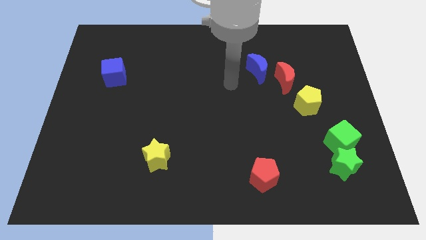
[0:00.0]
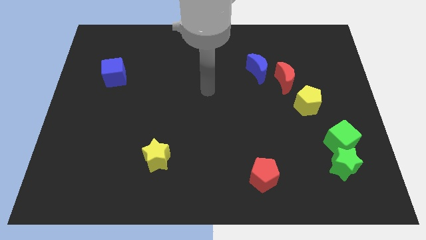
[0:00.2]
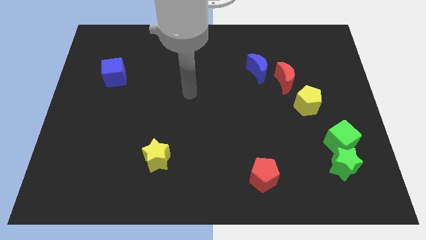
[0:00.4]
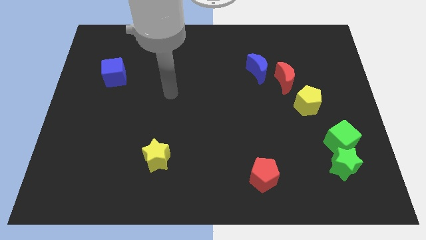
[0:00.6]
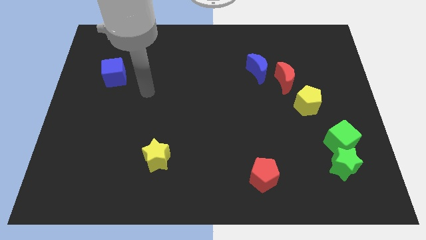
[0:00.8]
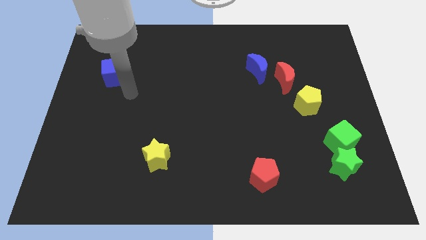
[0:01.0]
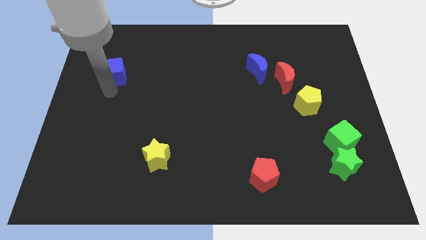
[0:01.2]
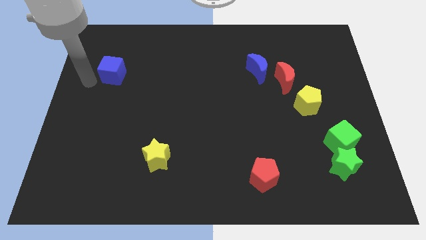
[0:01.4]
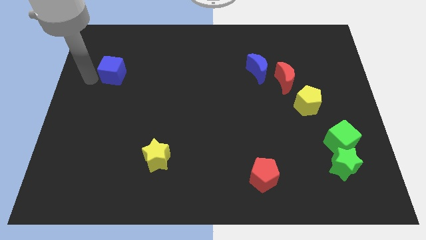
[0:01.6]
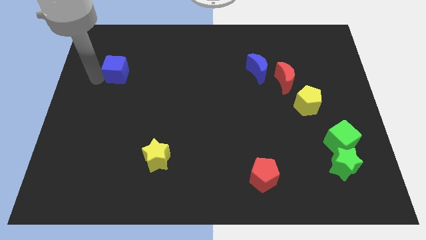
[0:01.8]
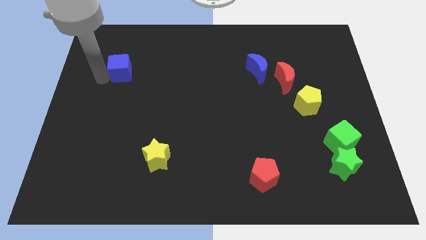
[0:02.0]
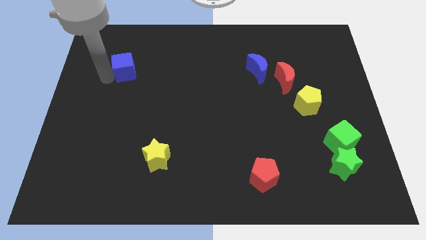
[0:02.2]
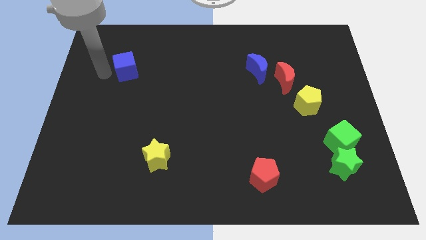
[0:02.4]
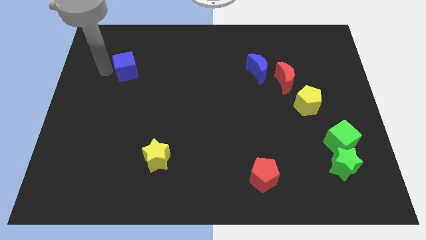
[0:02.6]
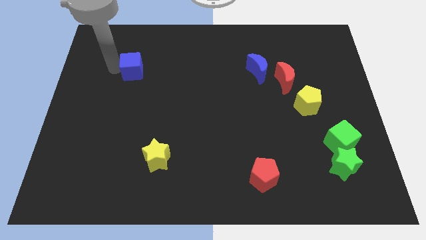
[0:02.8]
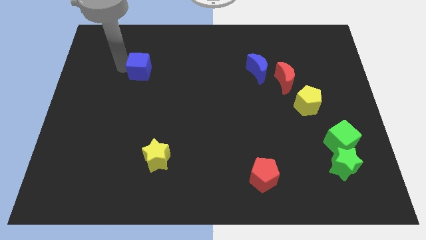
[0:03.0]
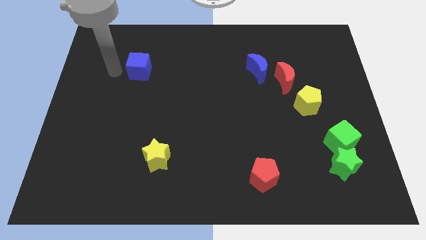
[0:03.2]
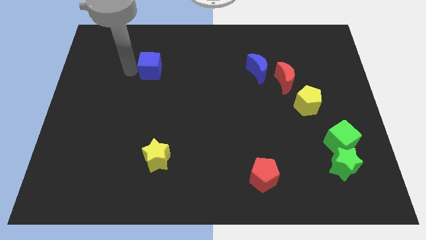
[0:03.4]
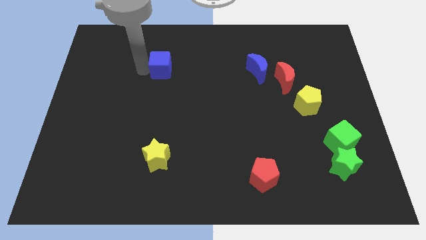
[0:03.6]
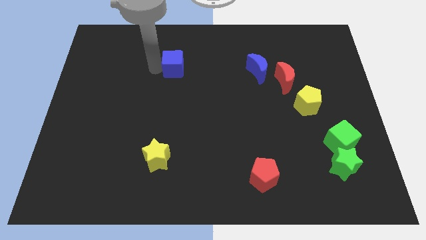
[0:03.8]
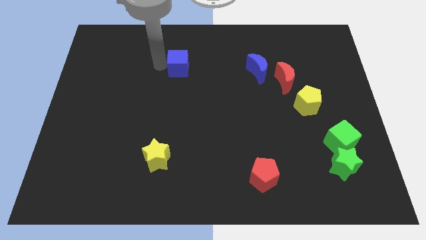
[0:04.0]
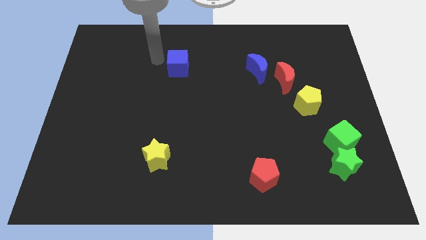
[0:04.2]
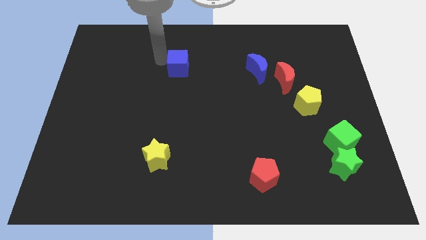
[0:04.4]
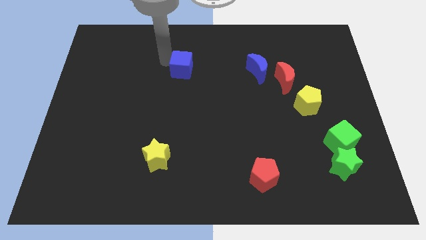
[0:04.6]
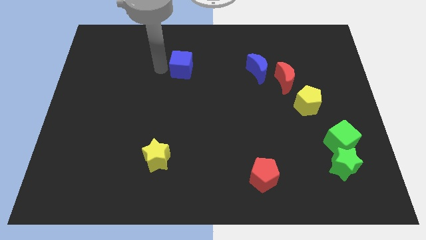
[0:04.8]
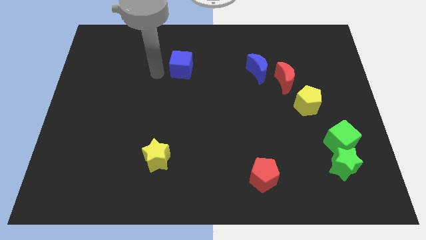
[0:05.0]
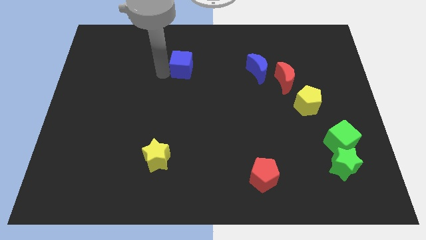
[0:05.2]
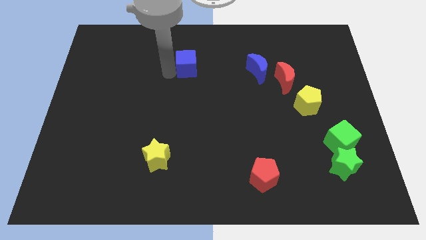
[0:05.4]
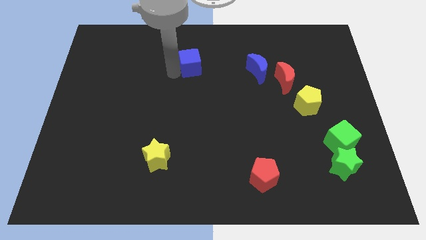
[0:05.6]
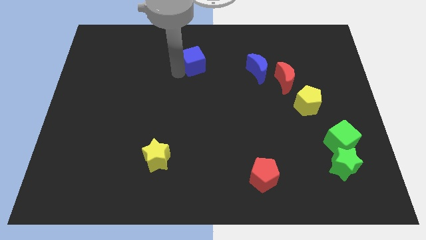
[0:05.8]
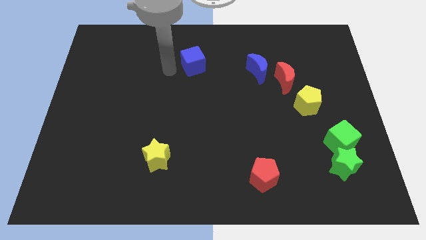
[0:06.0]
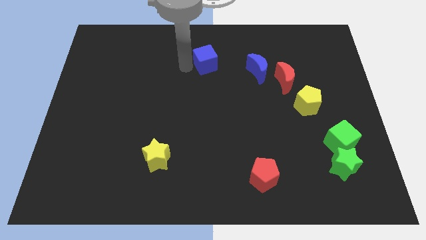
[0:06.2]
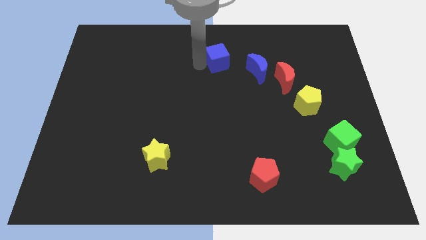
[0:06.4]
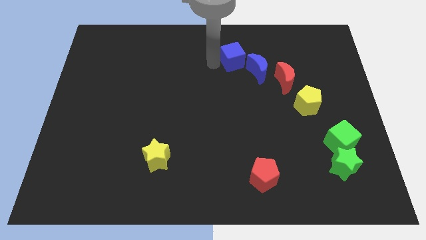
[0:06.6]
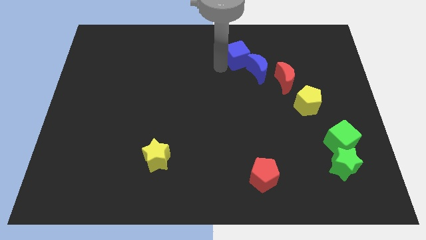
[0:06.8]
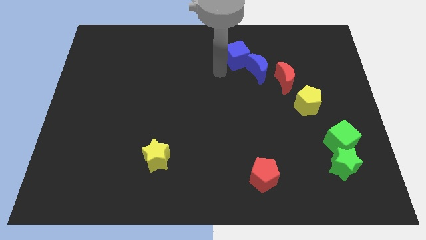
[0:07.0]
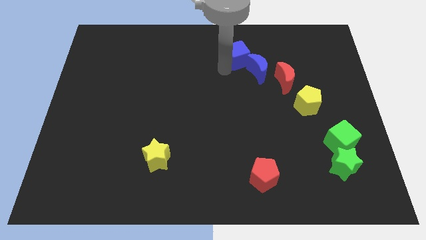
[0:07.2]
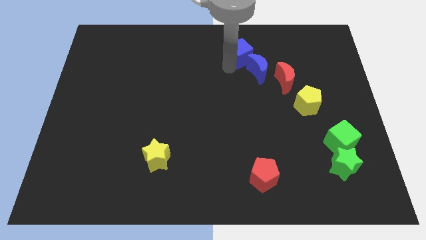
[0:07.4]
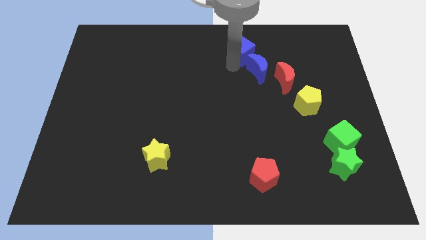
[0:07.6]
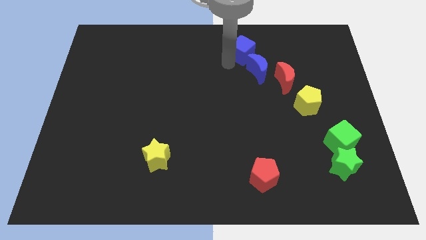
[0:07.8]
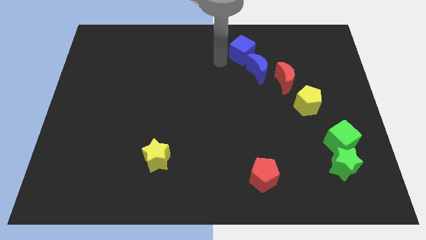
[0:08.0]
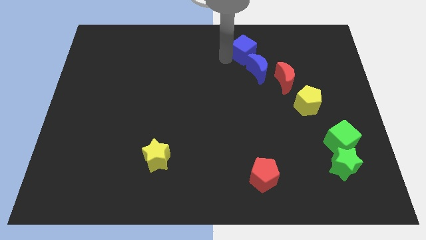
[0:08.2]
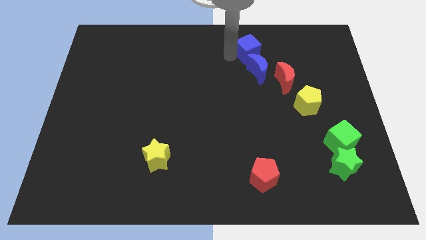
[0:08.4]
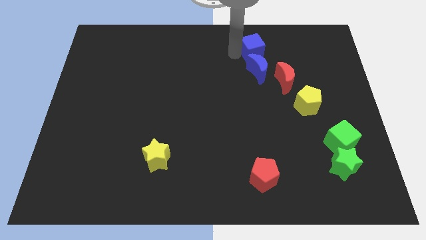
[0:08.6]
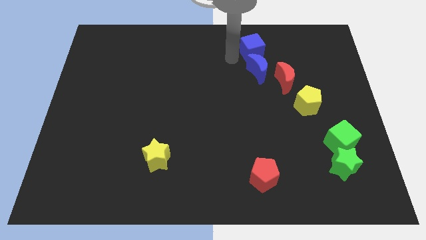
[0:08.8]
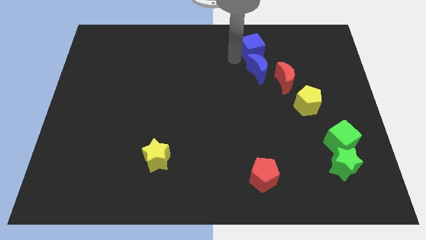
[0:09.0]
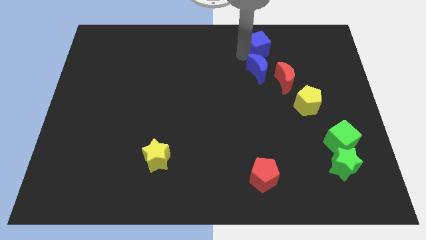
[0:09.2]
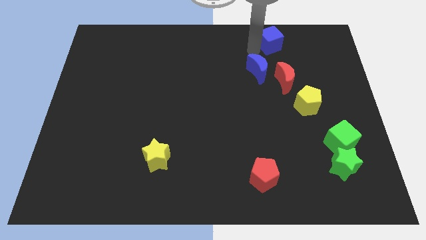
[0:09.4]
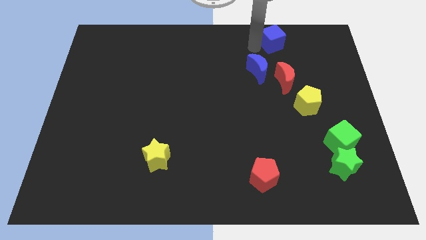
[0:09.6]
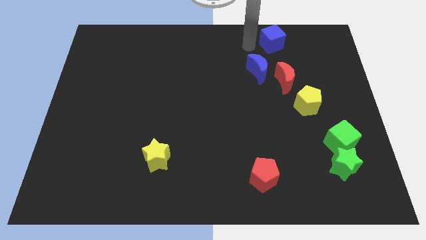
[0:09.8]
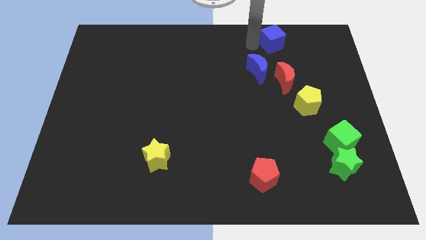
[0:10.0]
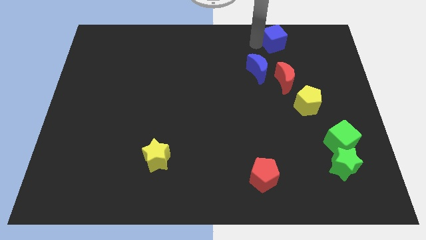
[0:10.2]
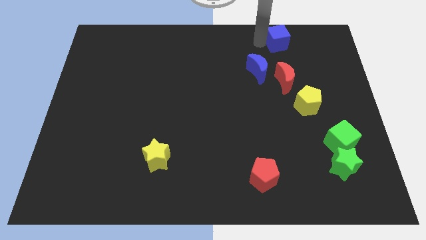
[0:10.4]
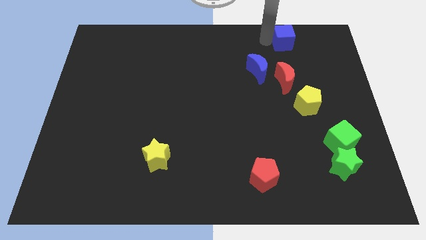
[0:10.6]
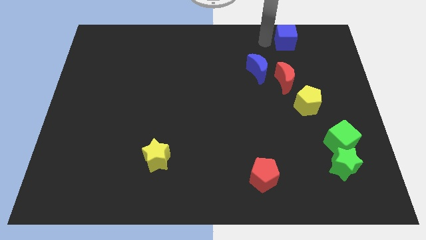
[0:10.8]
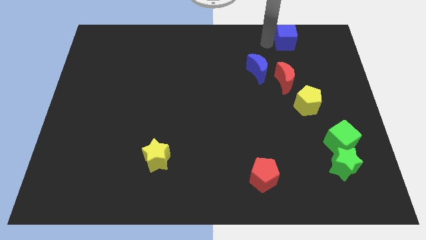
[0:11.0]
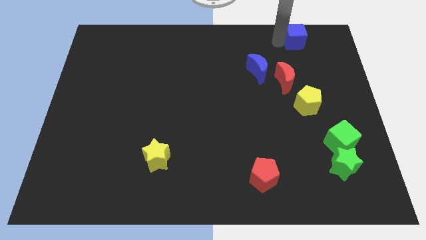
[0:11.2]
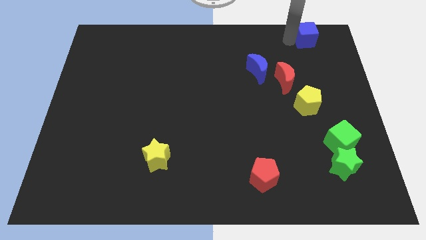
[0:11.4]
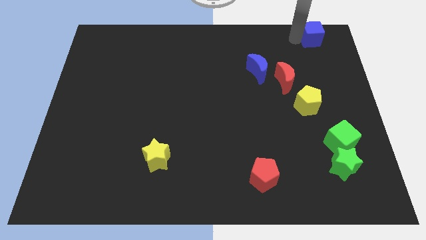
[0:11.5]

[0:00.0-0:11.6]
slide the blue cube to the upper right corner

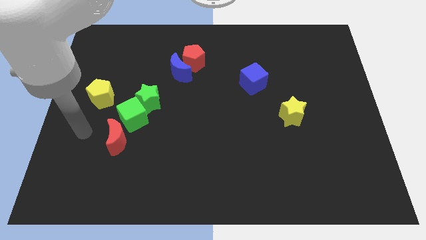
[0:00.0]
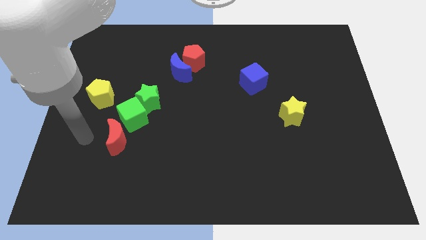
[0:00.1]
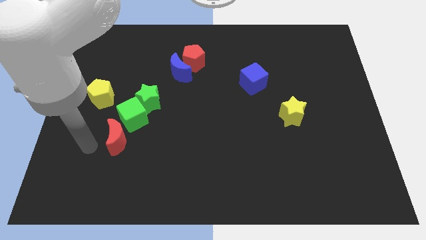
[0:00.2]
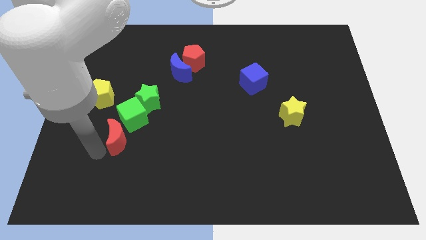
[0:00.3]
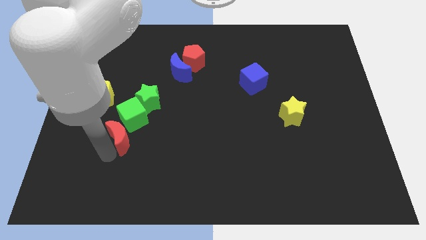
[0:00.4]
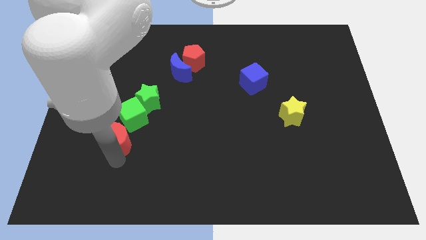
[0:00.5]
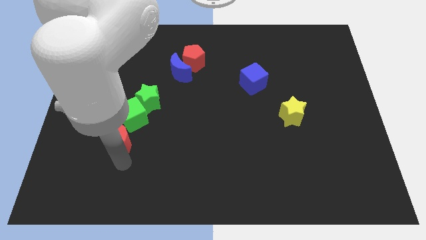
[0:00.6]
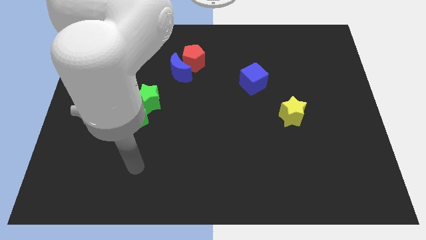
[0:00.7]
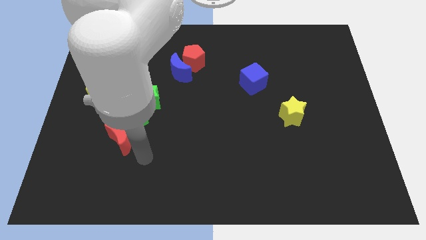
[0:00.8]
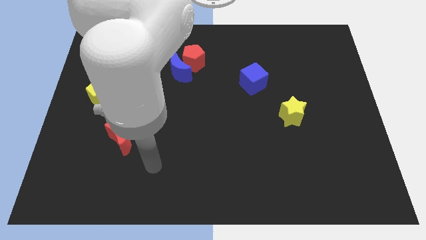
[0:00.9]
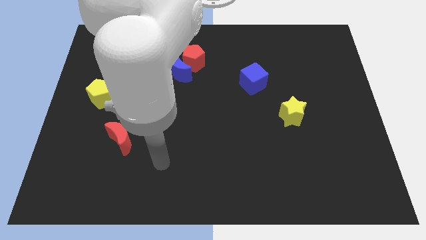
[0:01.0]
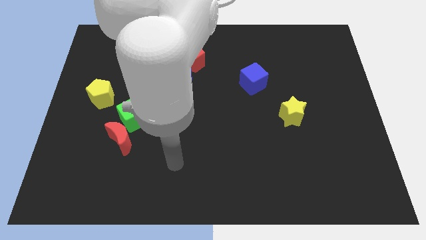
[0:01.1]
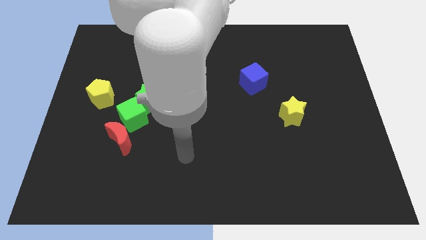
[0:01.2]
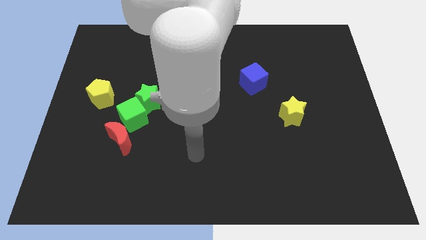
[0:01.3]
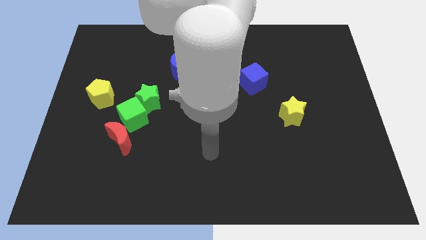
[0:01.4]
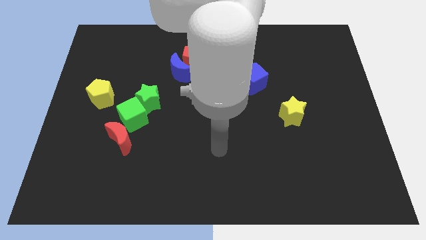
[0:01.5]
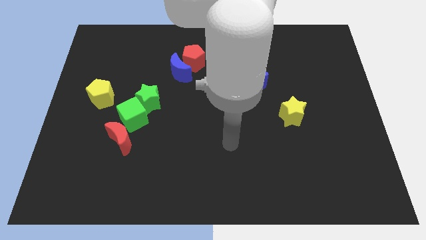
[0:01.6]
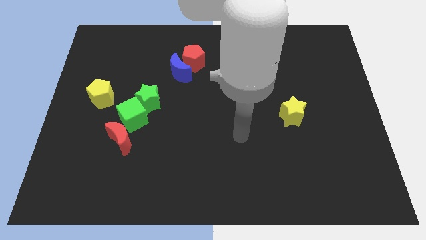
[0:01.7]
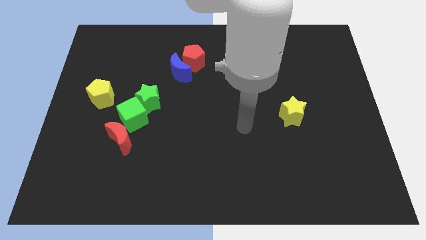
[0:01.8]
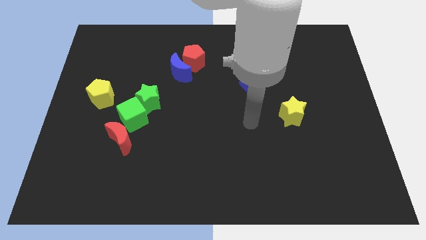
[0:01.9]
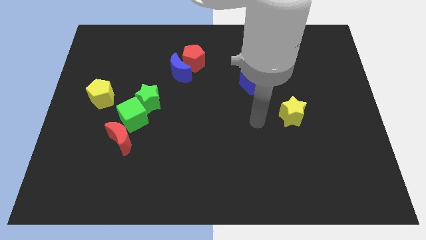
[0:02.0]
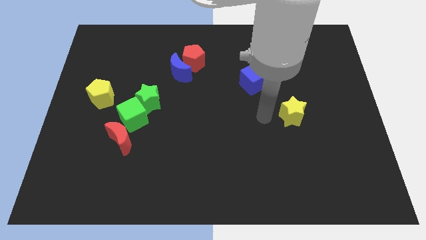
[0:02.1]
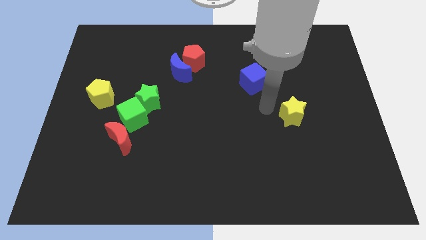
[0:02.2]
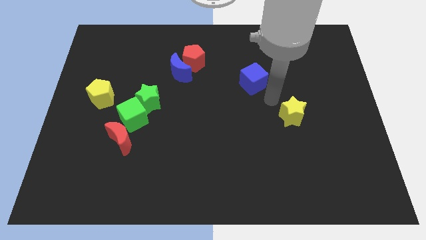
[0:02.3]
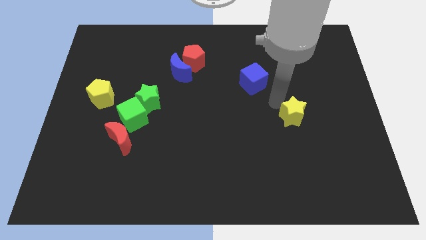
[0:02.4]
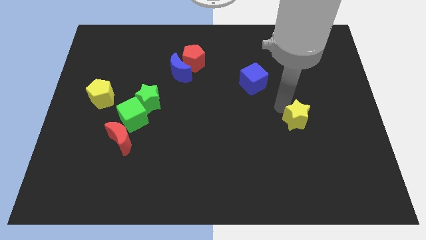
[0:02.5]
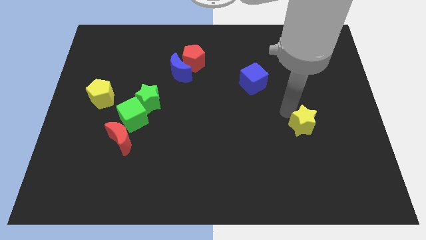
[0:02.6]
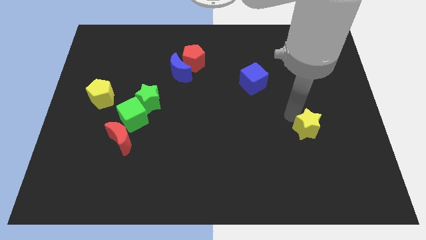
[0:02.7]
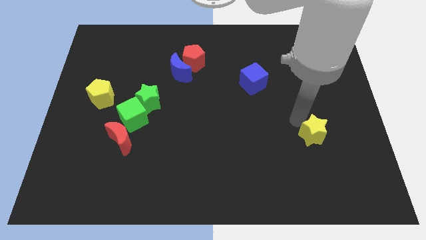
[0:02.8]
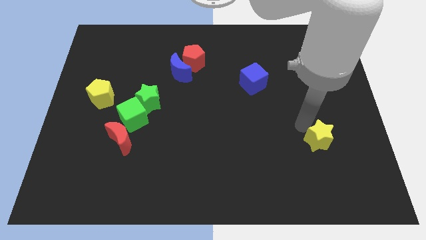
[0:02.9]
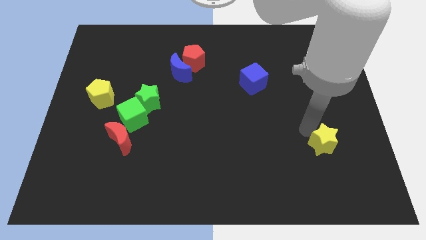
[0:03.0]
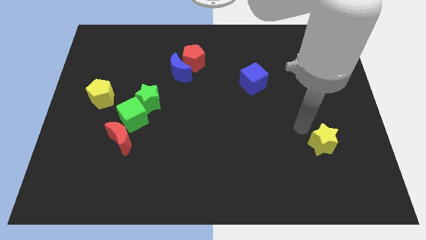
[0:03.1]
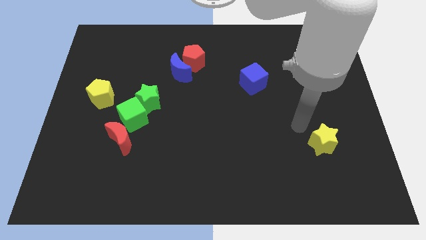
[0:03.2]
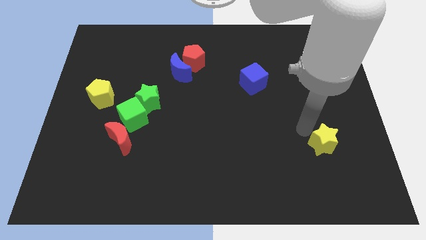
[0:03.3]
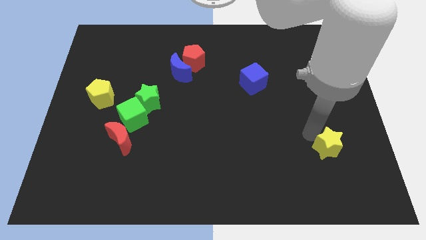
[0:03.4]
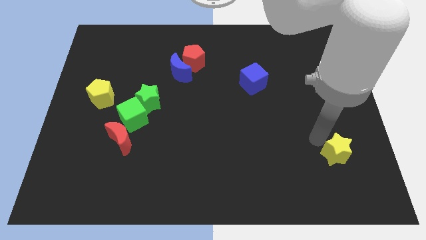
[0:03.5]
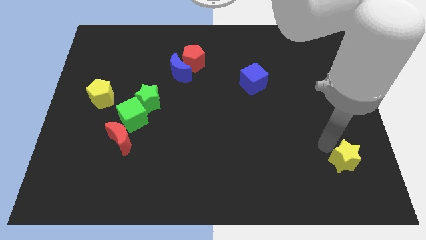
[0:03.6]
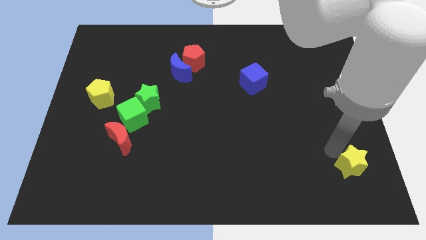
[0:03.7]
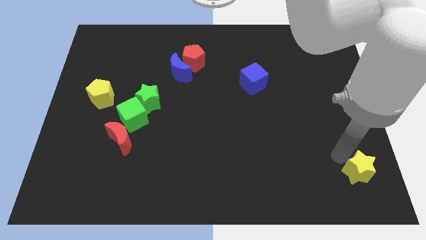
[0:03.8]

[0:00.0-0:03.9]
move the yellow star to the lower right corner
